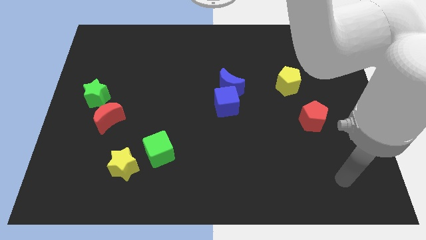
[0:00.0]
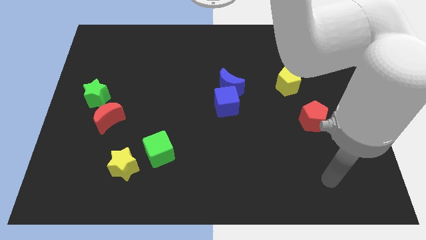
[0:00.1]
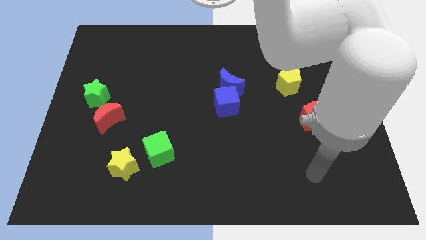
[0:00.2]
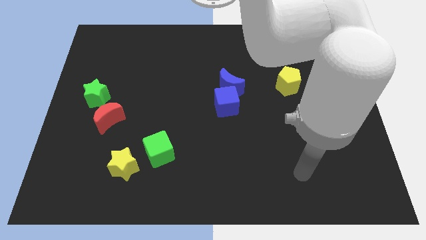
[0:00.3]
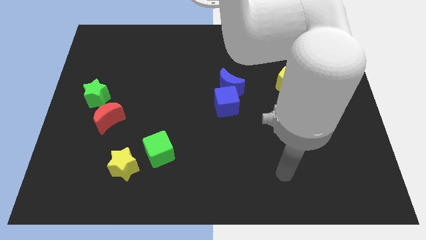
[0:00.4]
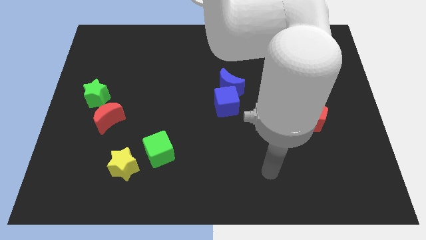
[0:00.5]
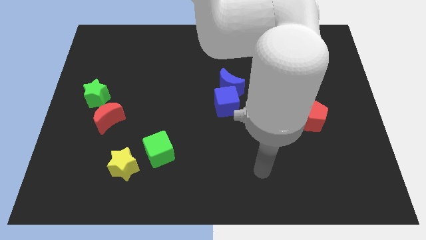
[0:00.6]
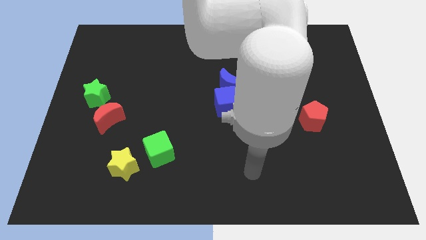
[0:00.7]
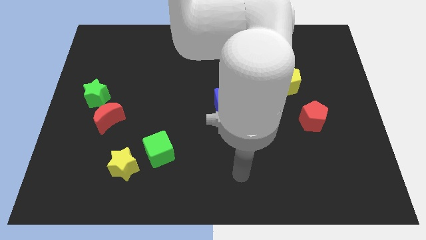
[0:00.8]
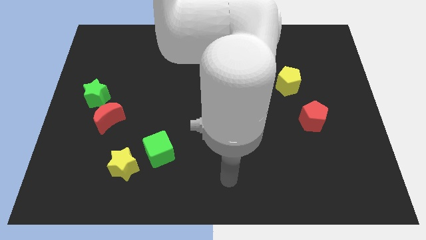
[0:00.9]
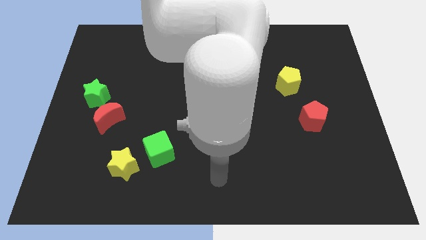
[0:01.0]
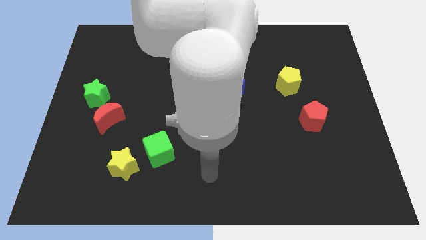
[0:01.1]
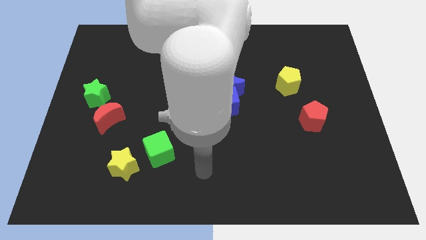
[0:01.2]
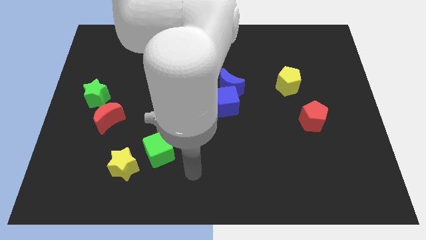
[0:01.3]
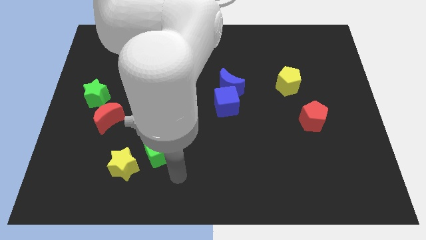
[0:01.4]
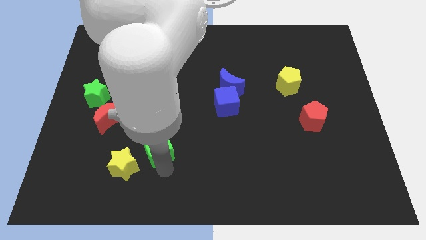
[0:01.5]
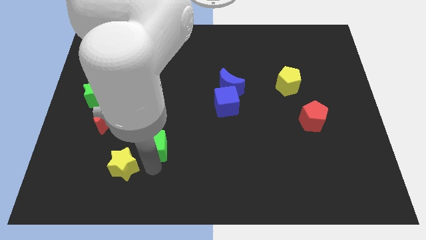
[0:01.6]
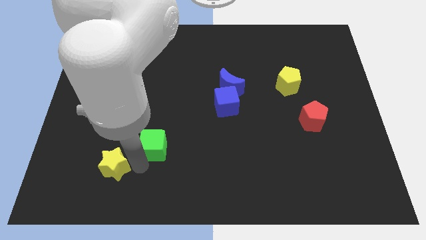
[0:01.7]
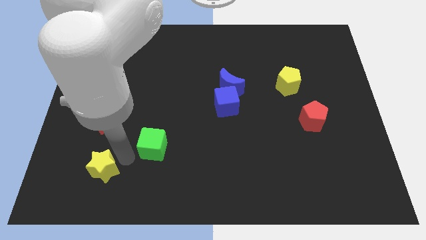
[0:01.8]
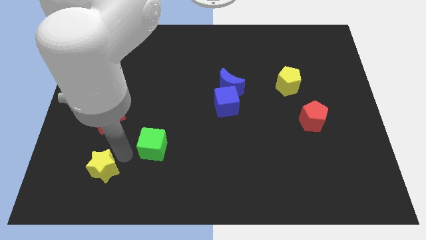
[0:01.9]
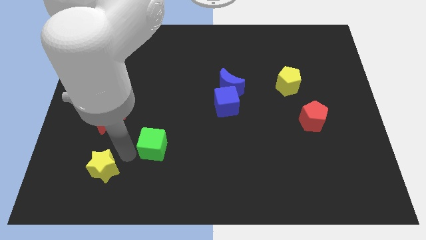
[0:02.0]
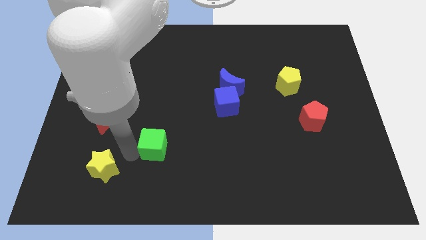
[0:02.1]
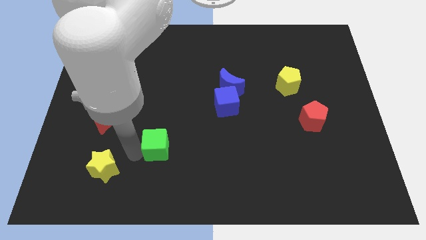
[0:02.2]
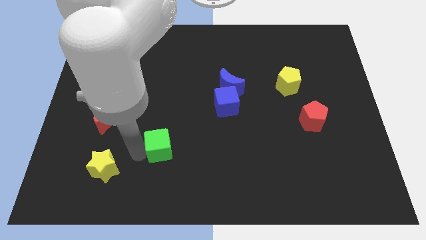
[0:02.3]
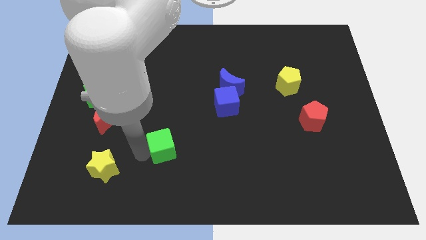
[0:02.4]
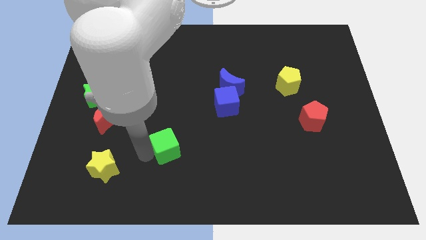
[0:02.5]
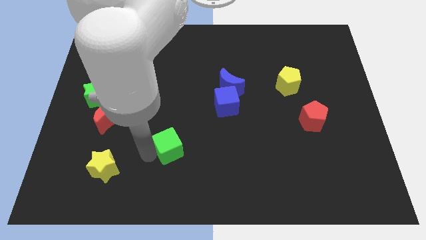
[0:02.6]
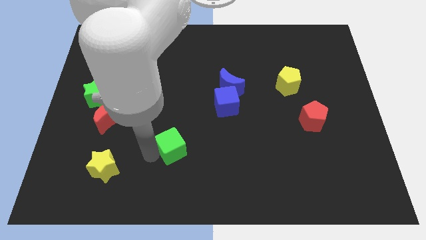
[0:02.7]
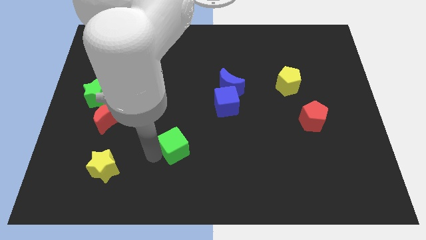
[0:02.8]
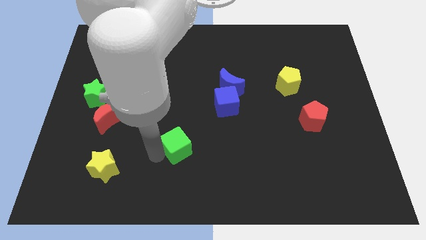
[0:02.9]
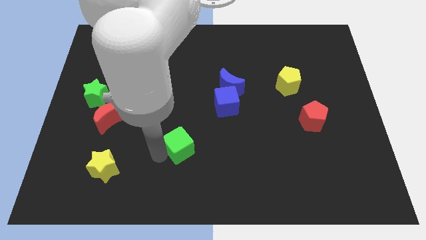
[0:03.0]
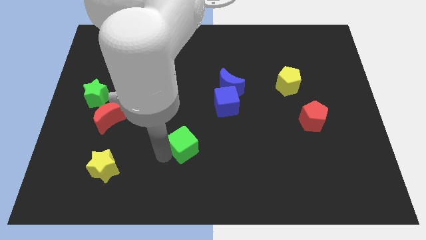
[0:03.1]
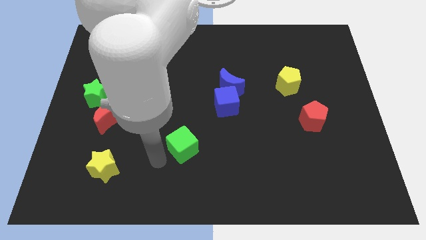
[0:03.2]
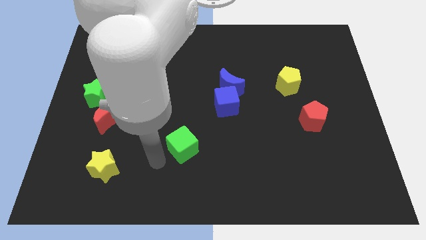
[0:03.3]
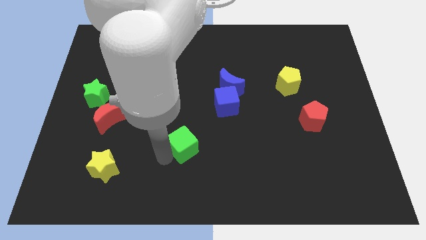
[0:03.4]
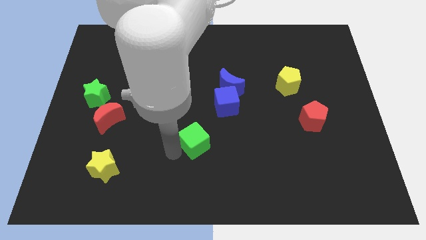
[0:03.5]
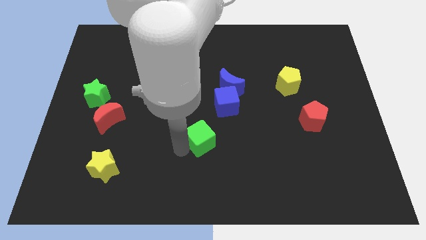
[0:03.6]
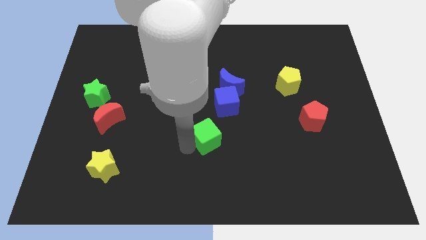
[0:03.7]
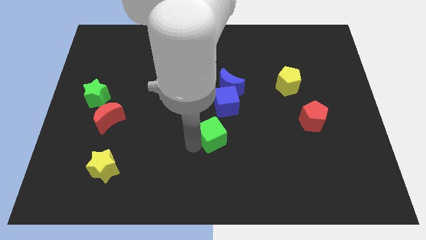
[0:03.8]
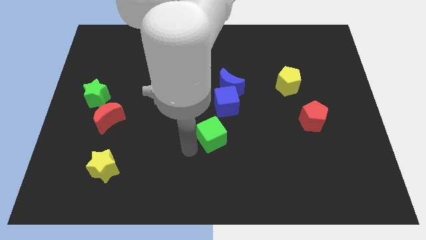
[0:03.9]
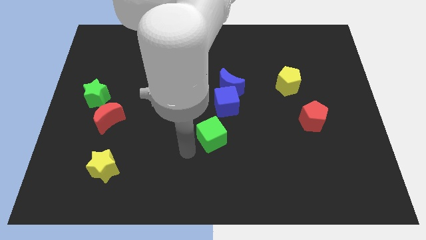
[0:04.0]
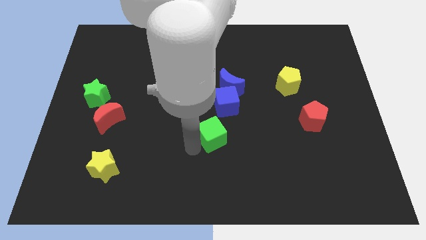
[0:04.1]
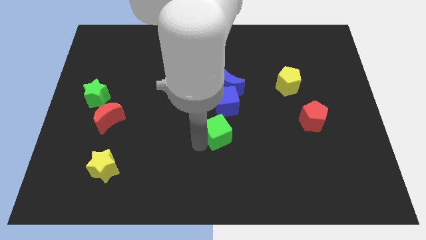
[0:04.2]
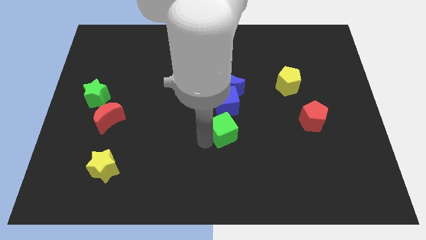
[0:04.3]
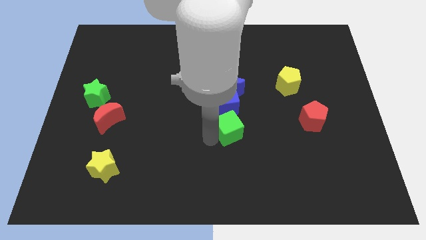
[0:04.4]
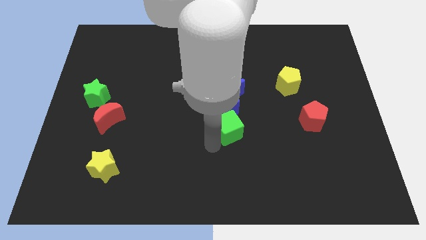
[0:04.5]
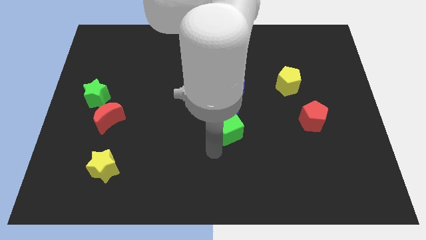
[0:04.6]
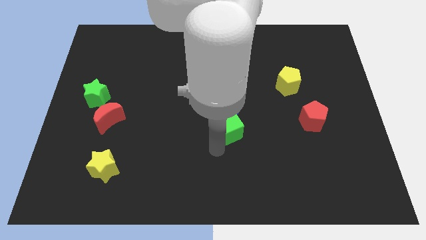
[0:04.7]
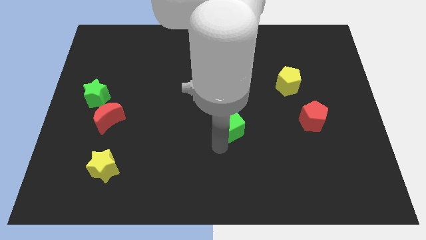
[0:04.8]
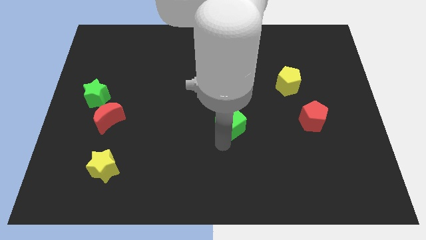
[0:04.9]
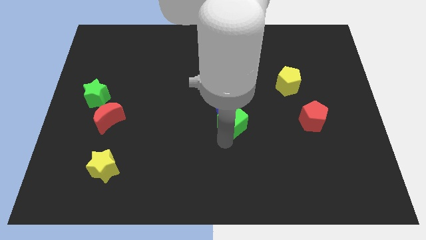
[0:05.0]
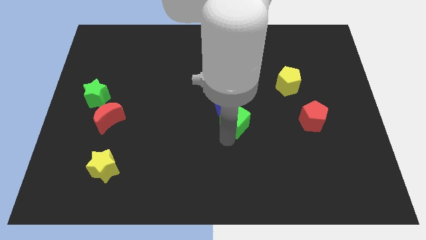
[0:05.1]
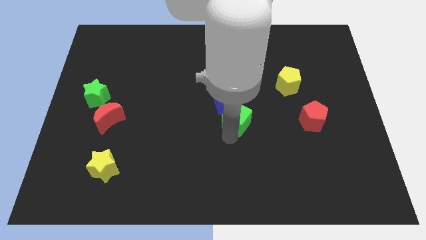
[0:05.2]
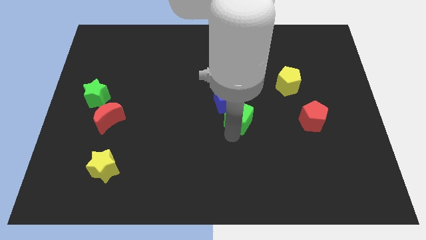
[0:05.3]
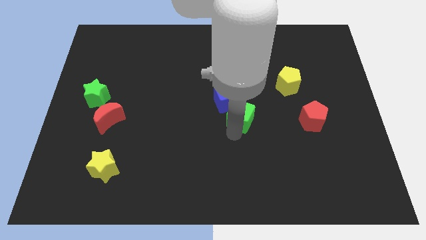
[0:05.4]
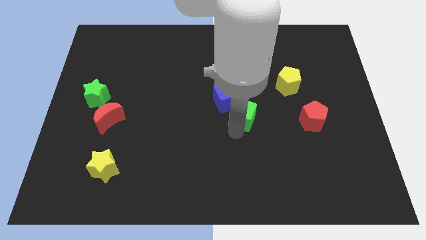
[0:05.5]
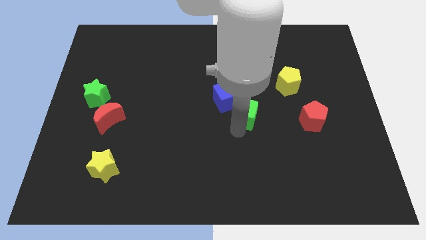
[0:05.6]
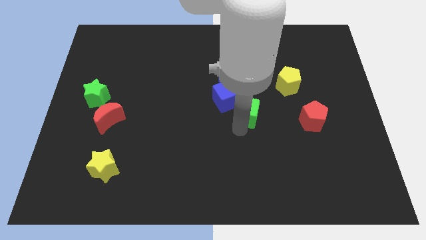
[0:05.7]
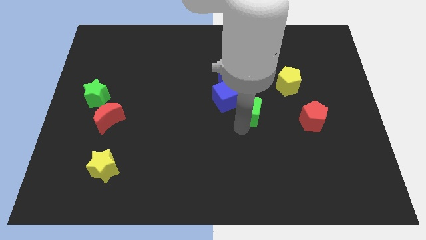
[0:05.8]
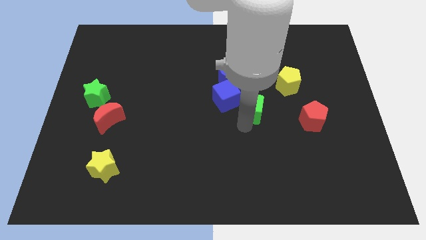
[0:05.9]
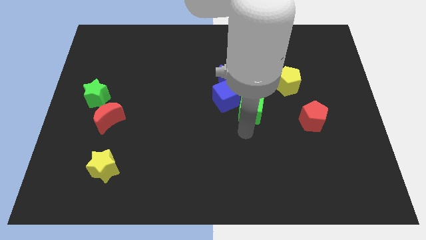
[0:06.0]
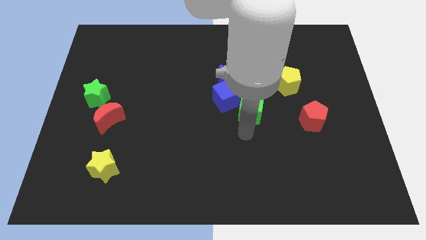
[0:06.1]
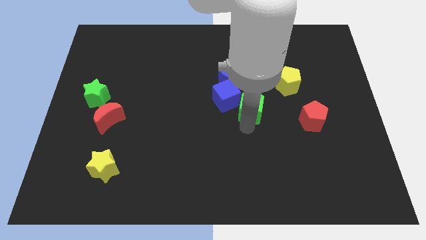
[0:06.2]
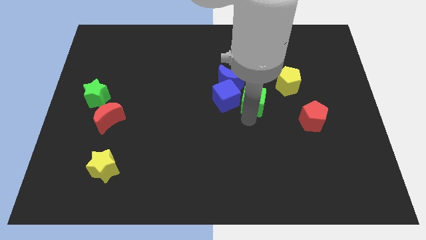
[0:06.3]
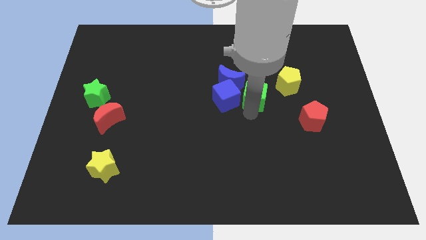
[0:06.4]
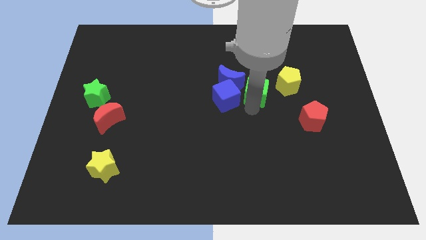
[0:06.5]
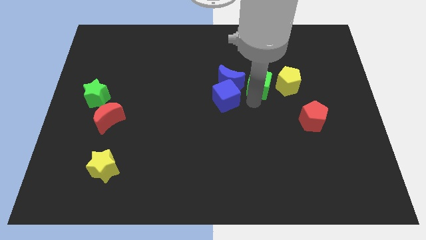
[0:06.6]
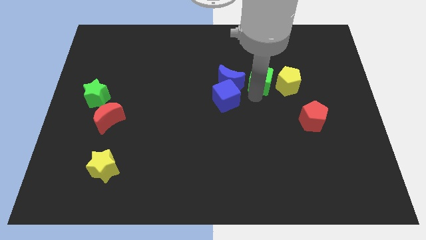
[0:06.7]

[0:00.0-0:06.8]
move the green cube to the top left of the yellow pentagon

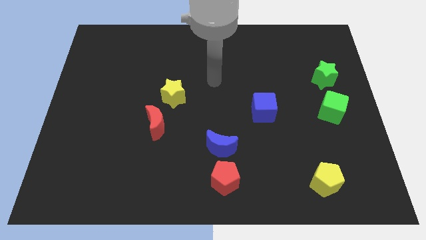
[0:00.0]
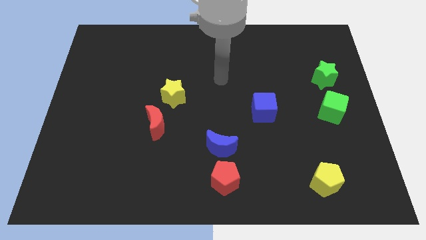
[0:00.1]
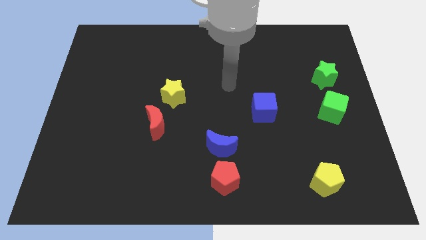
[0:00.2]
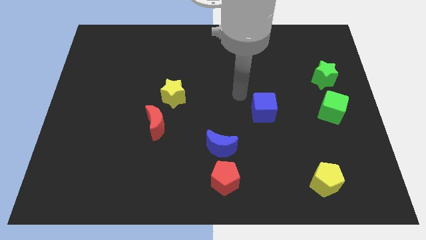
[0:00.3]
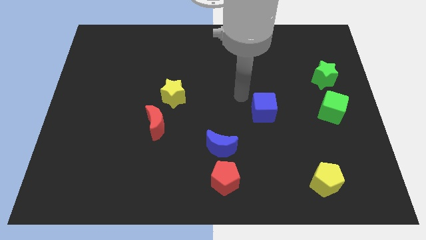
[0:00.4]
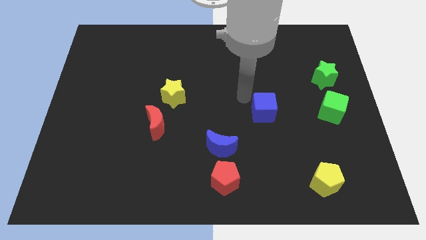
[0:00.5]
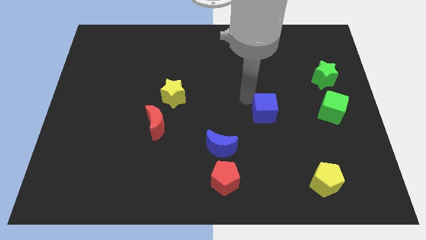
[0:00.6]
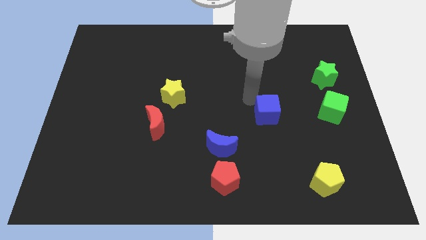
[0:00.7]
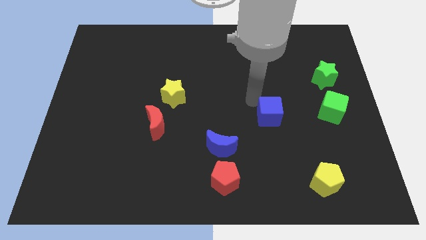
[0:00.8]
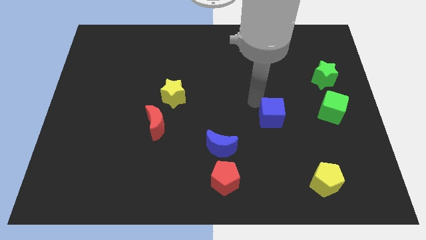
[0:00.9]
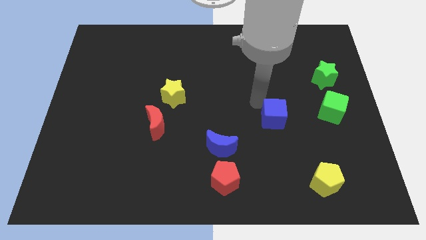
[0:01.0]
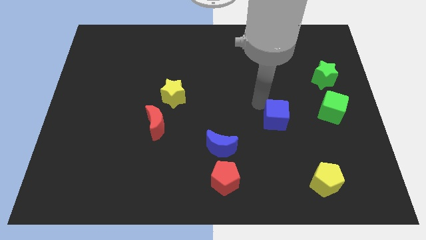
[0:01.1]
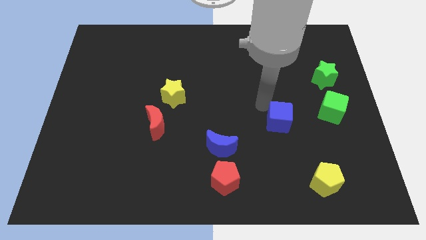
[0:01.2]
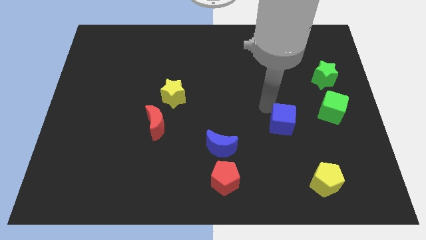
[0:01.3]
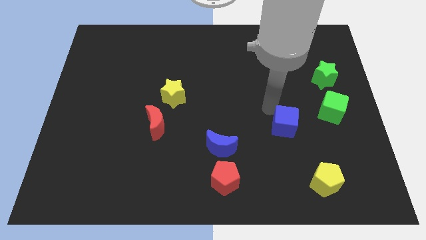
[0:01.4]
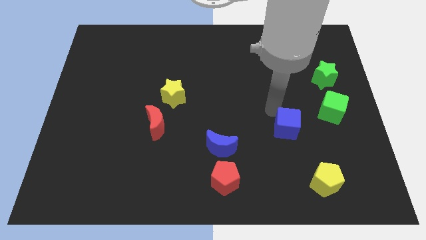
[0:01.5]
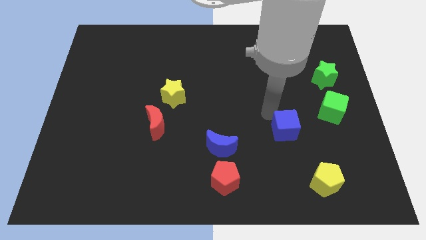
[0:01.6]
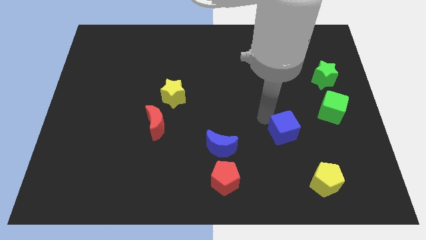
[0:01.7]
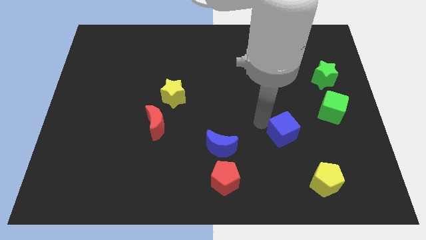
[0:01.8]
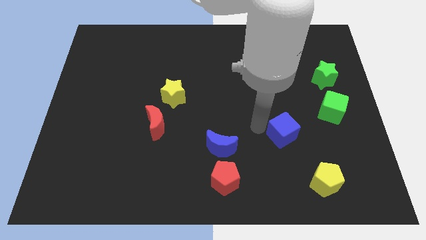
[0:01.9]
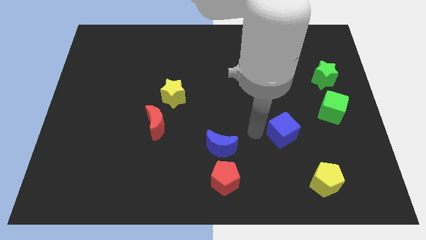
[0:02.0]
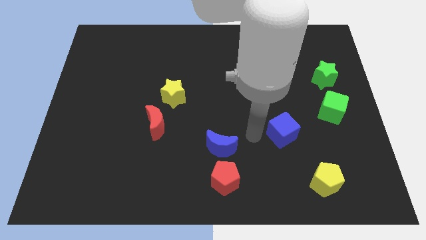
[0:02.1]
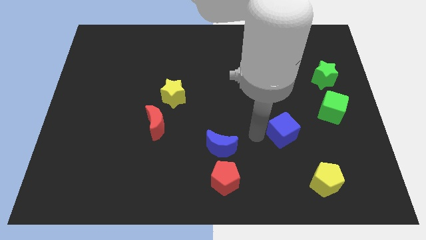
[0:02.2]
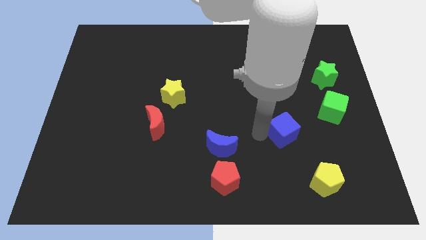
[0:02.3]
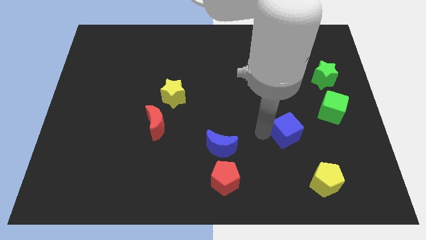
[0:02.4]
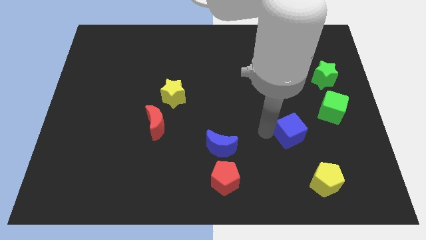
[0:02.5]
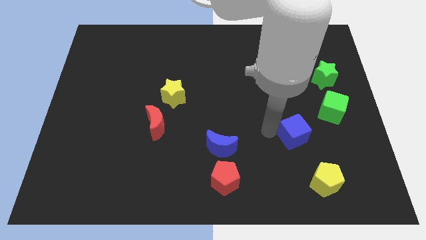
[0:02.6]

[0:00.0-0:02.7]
put the blue cube diagonally down and to the left of the green cube
